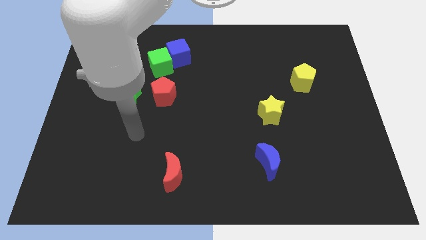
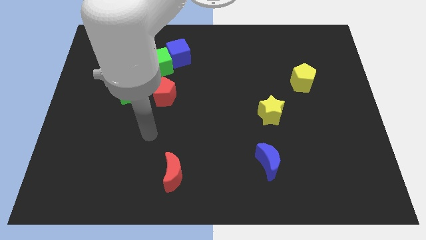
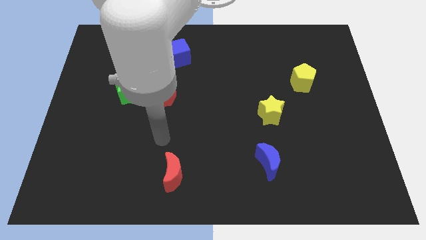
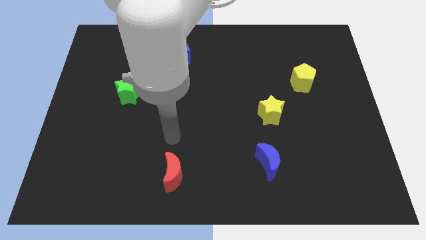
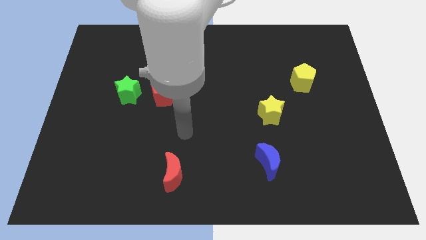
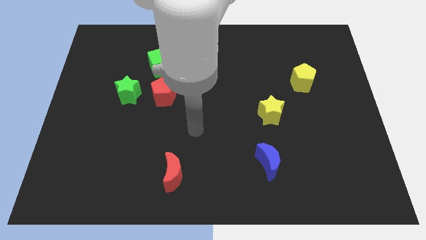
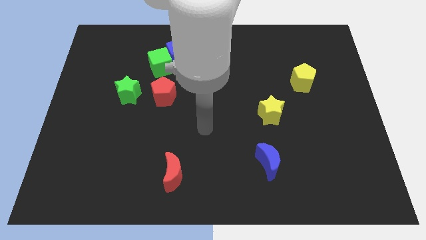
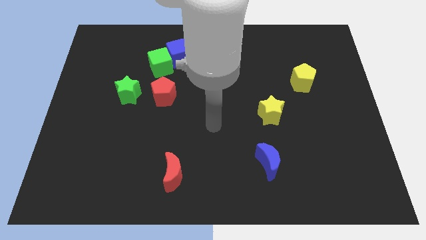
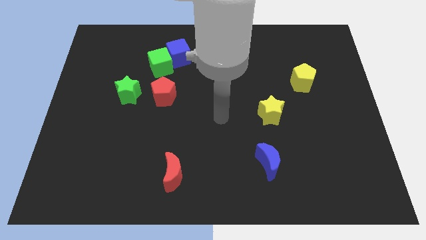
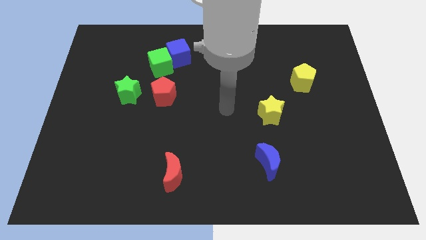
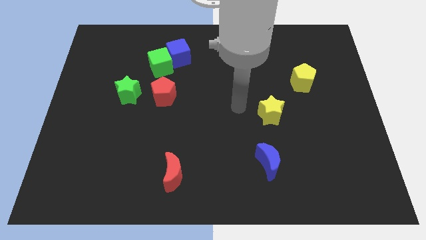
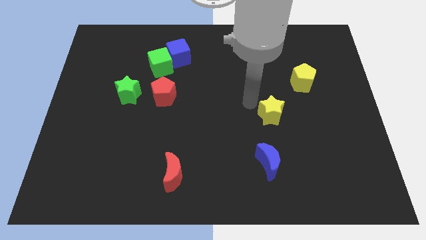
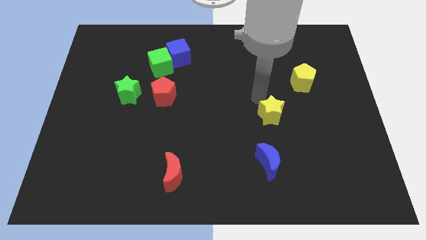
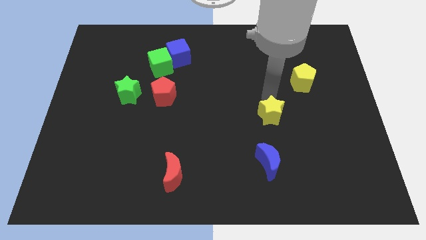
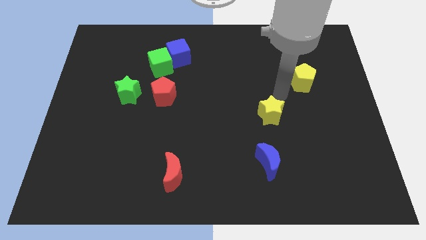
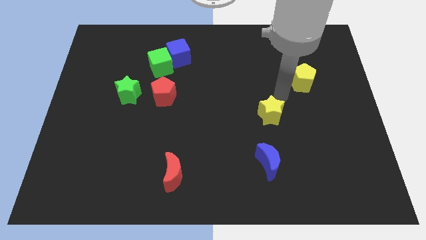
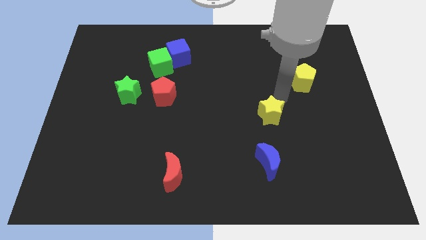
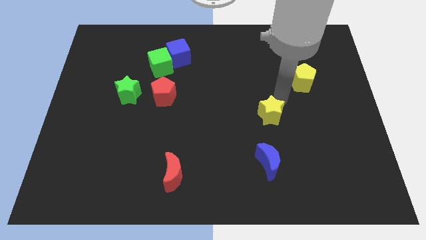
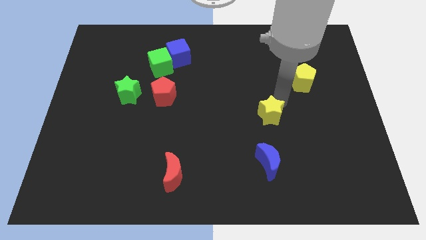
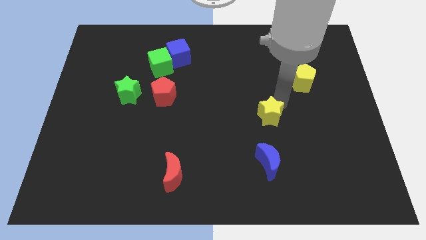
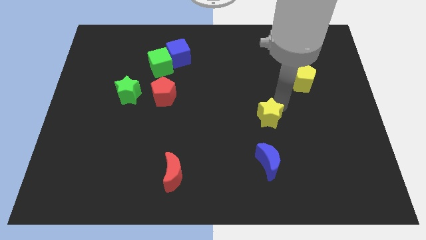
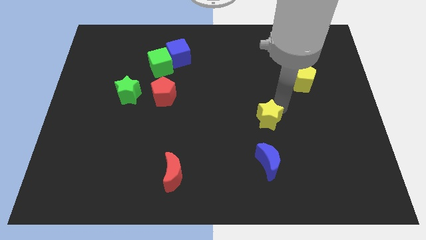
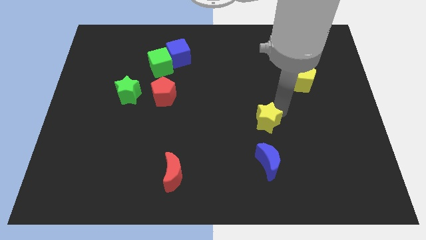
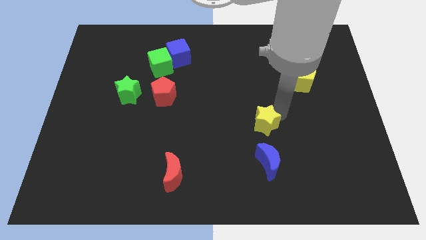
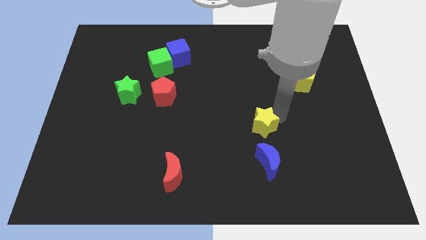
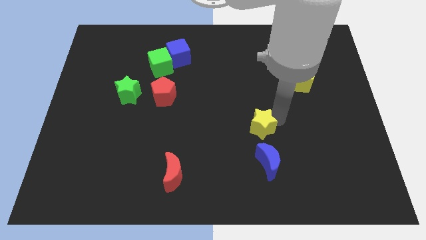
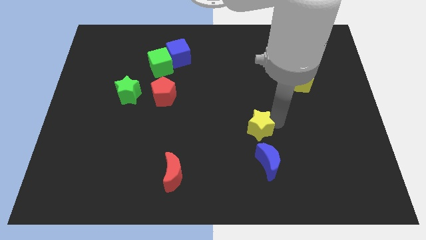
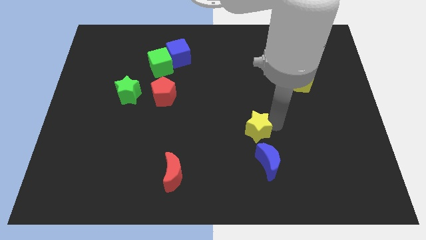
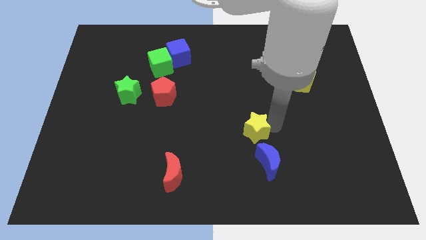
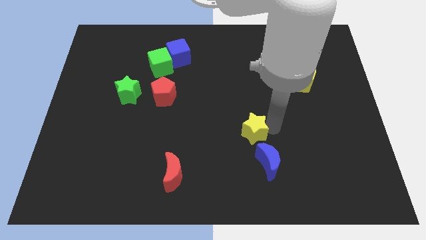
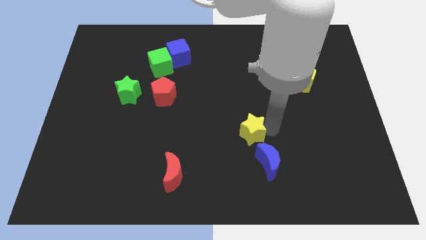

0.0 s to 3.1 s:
push the yellow star slightly down and left diagonally

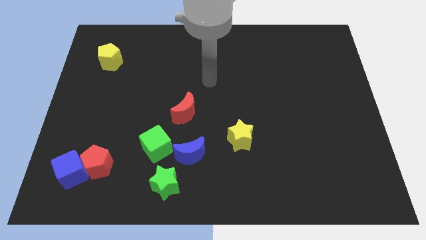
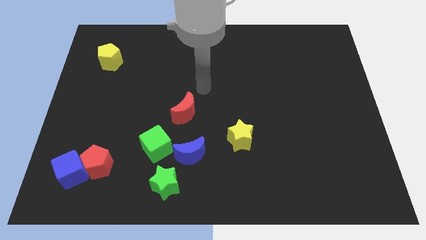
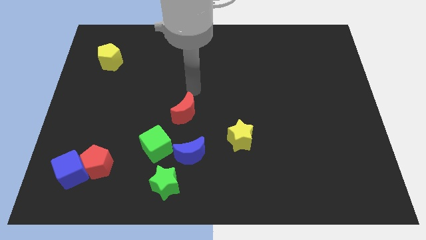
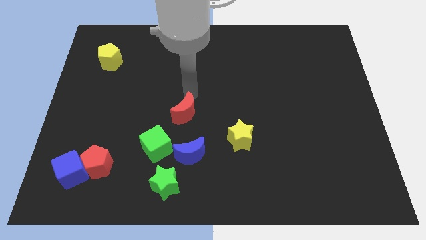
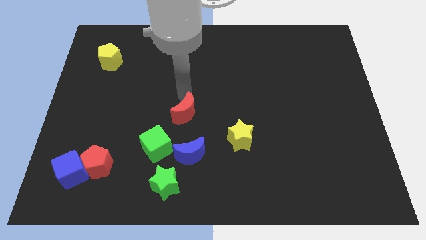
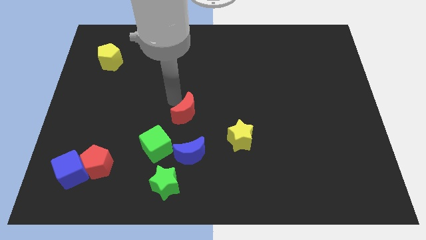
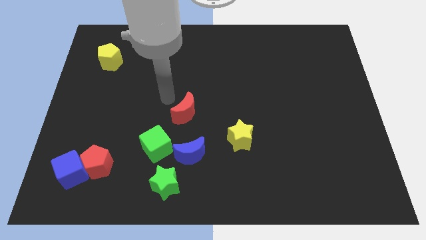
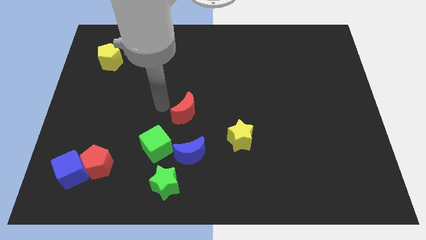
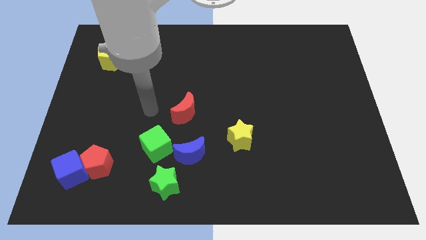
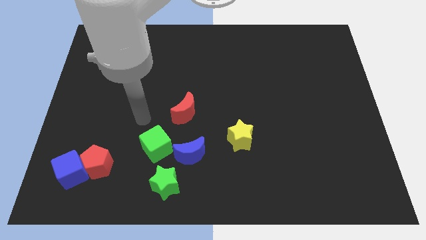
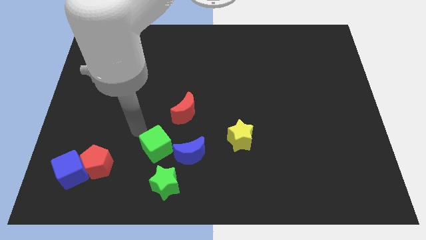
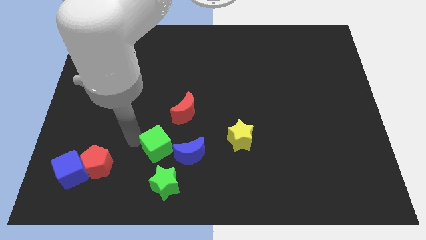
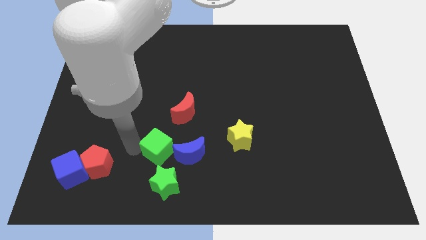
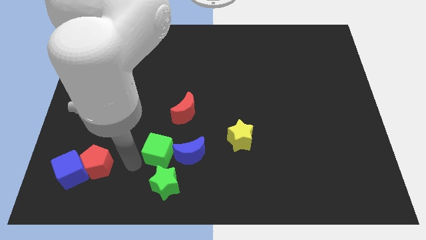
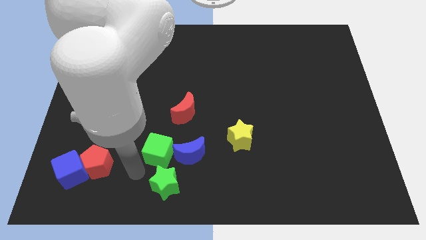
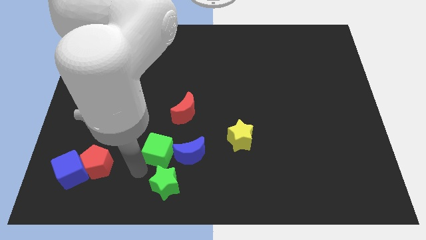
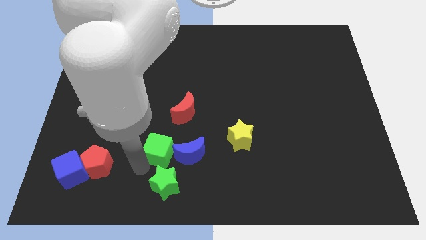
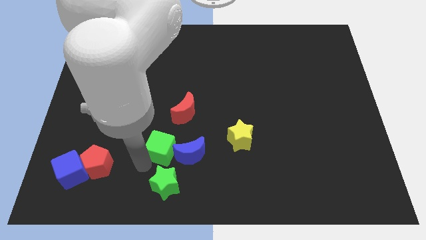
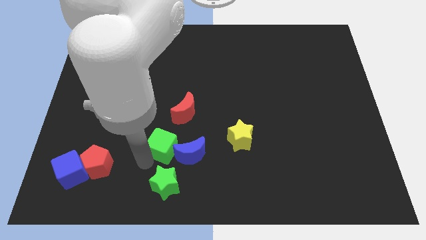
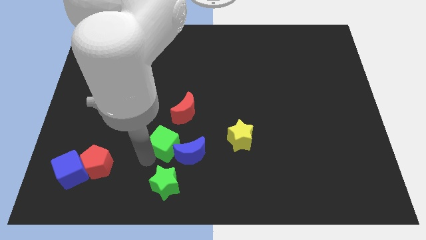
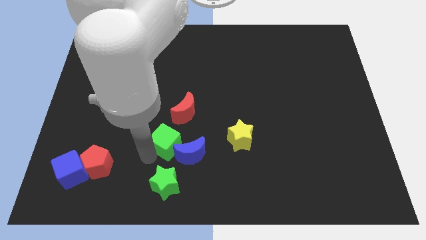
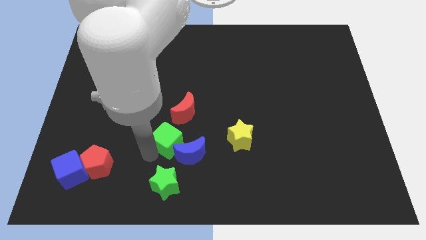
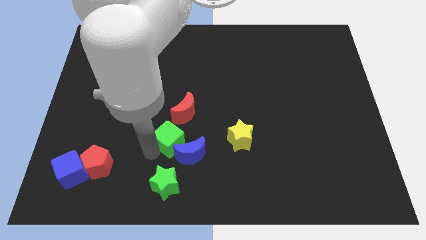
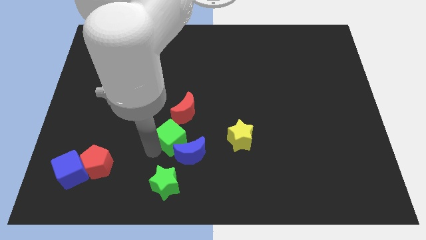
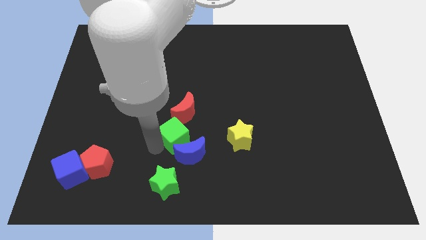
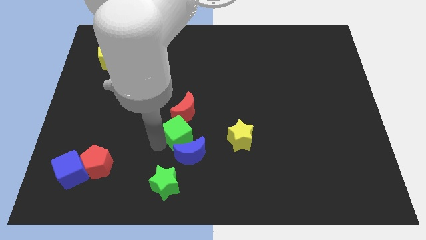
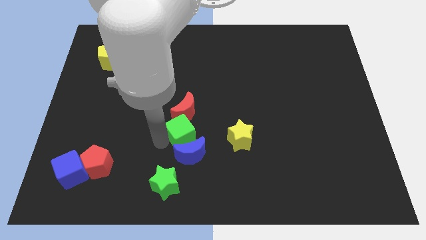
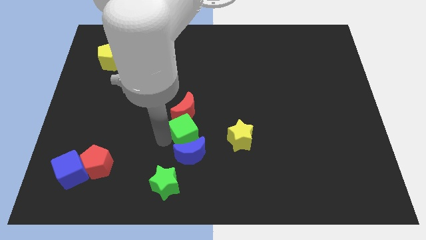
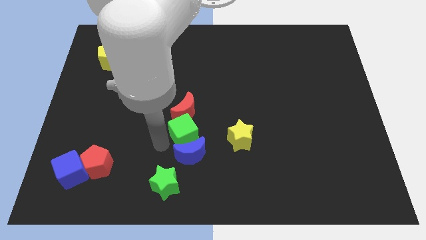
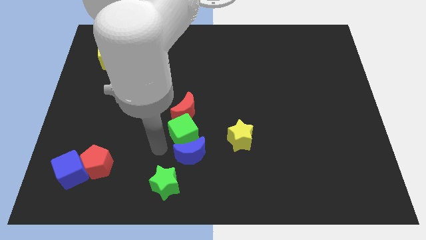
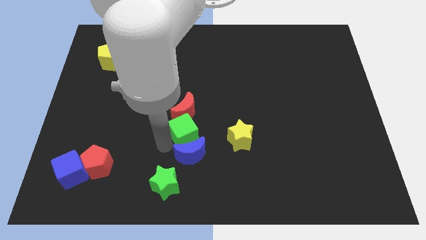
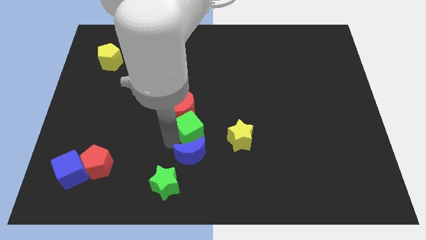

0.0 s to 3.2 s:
slightly slide the green cube diagonally up and to the right

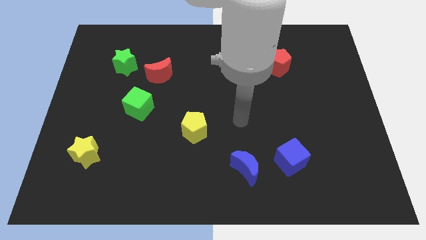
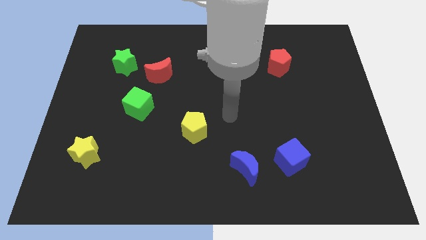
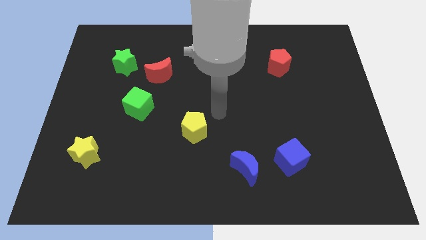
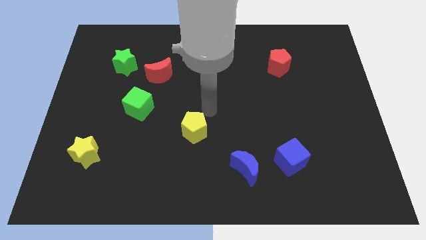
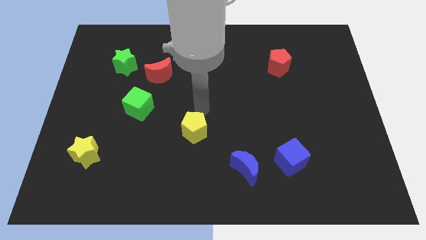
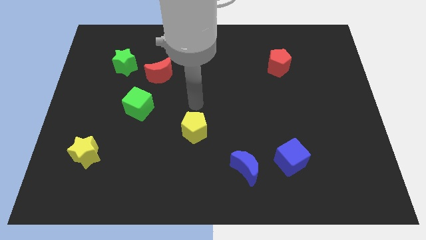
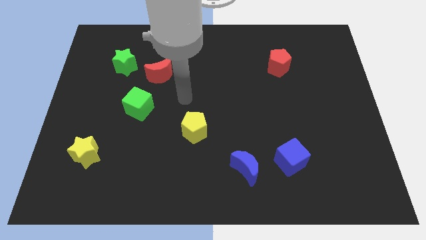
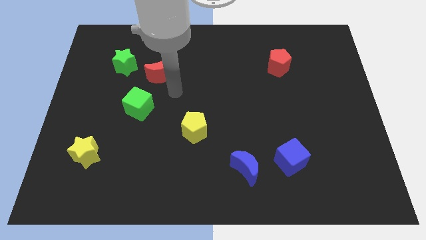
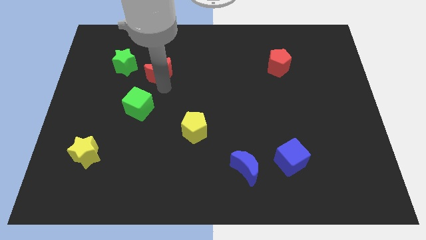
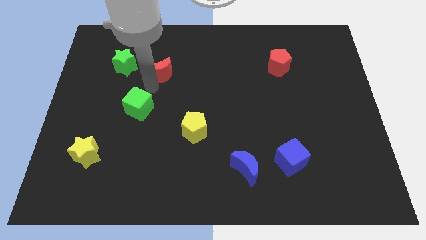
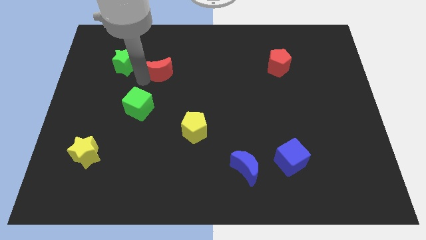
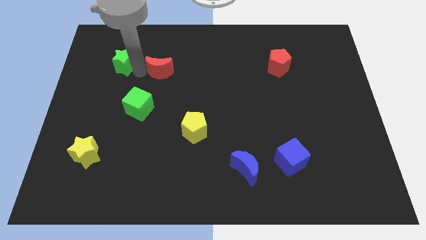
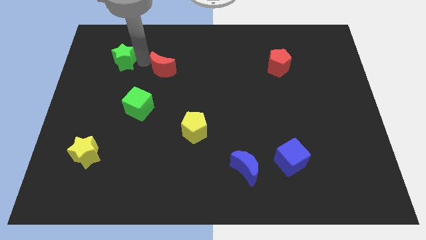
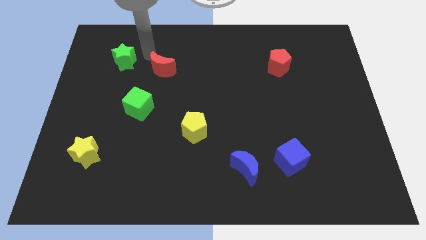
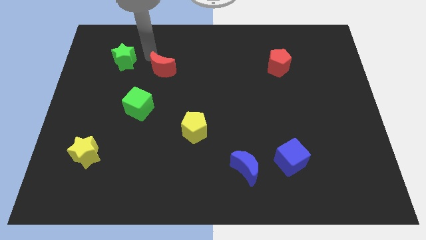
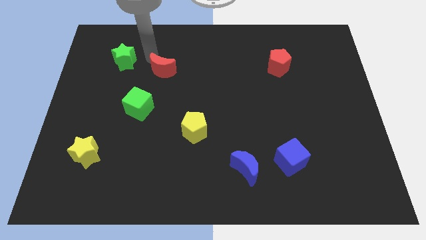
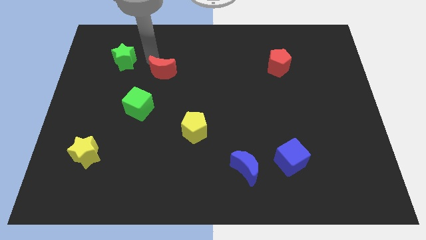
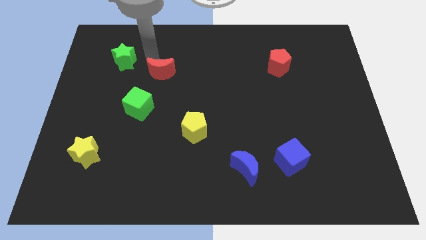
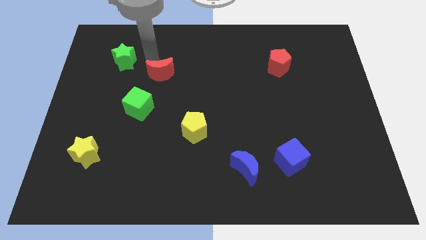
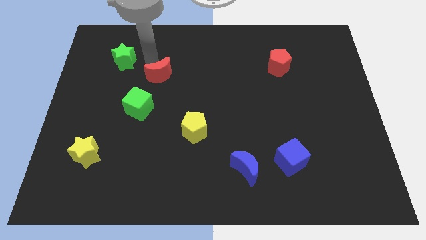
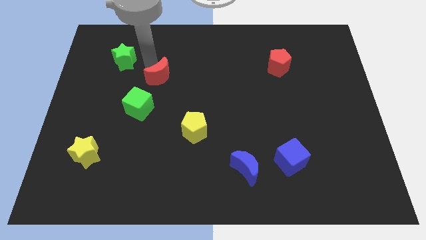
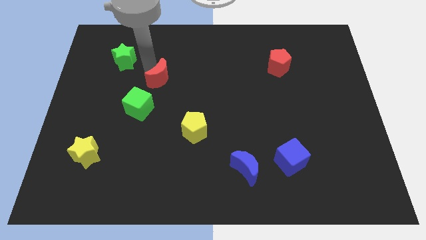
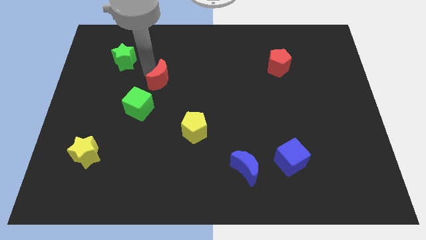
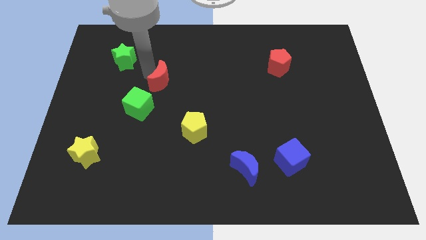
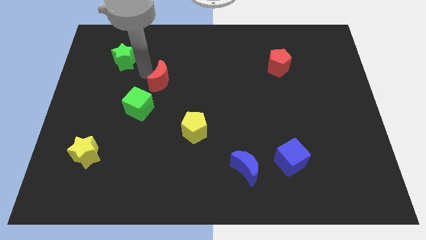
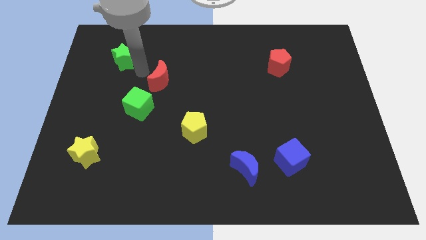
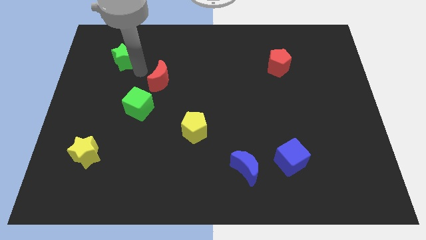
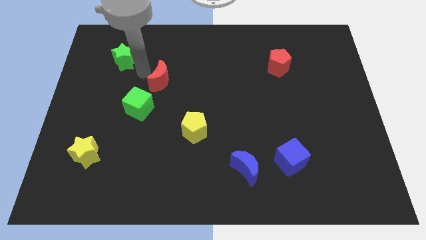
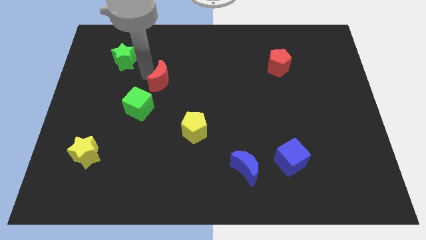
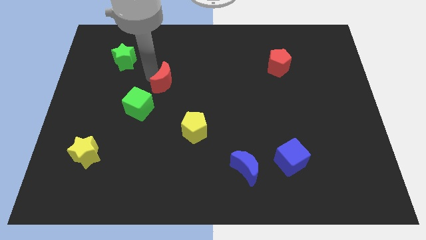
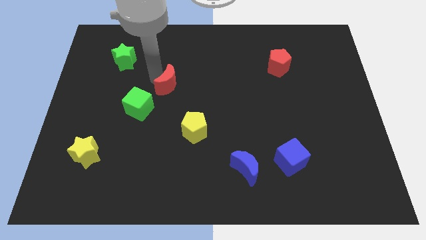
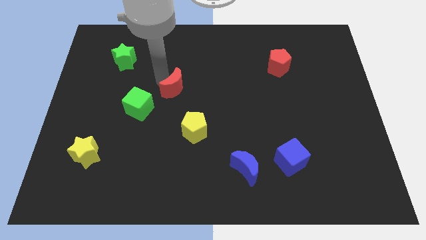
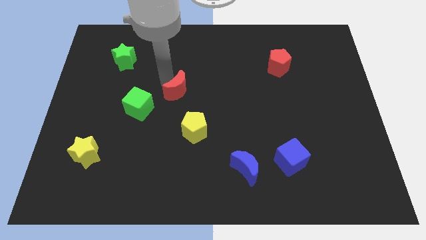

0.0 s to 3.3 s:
slightly slide the red moon down and then to the right
